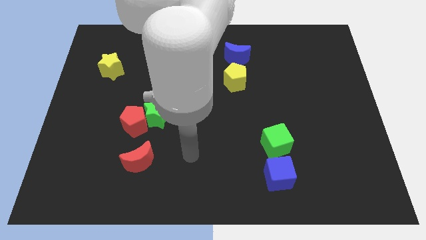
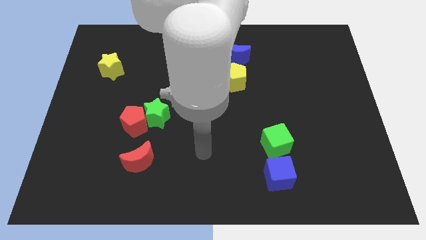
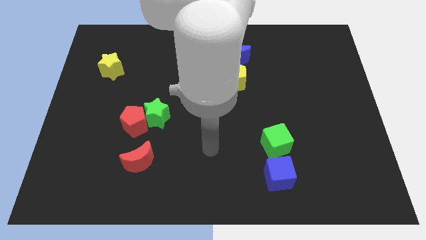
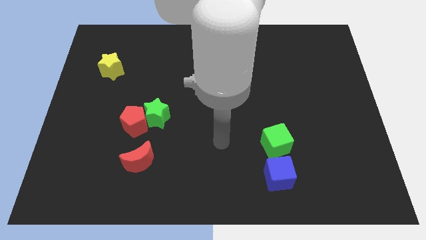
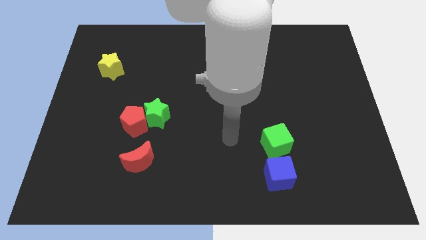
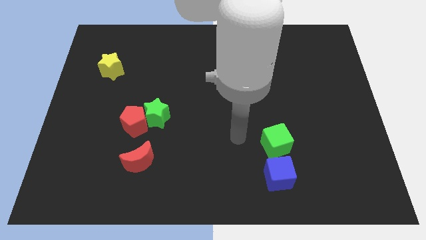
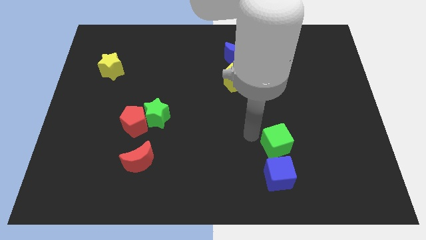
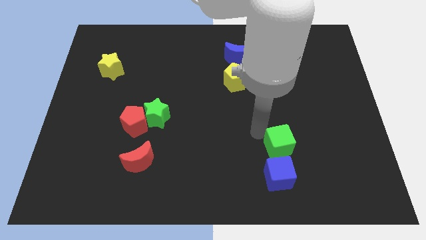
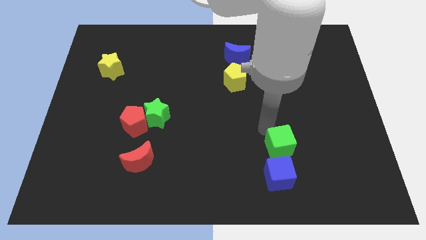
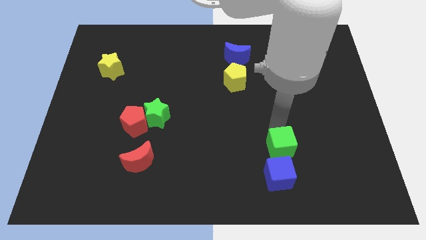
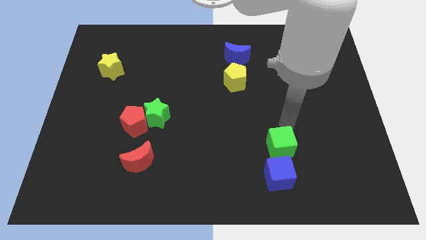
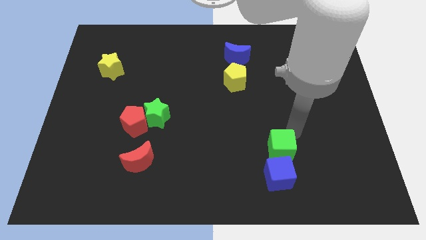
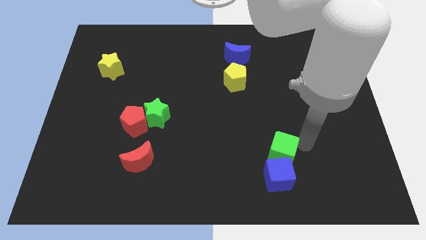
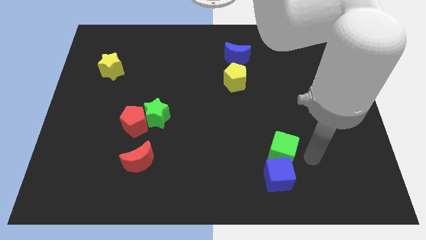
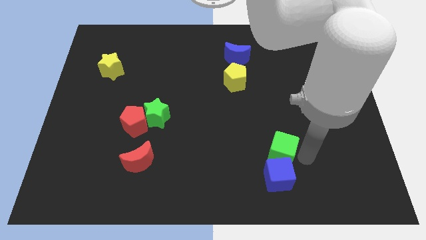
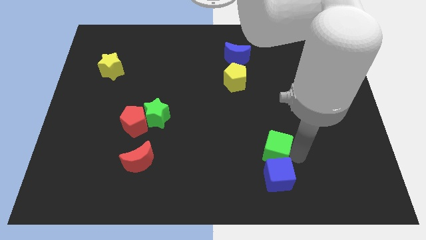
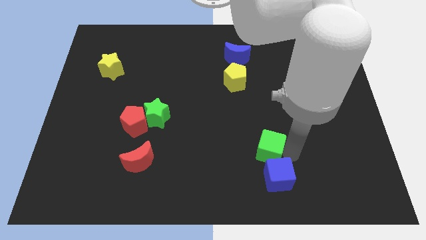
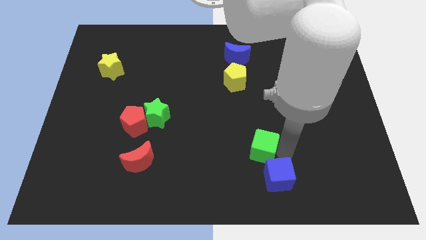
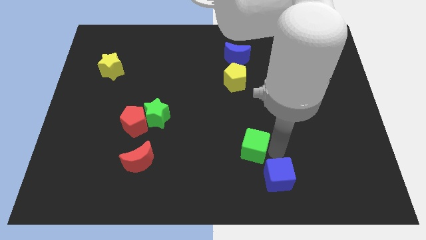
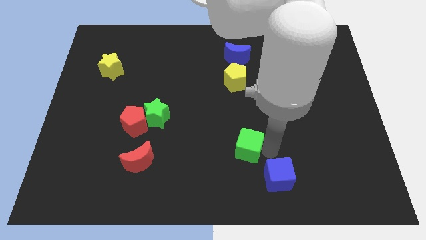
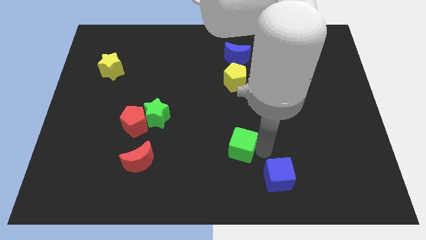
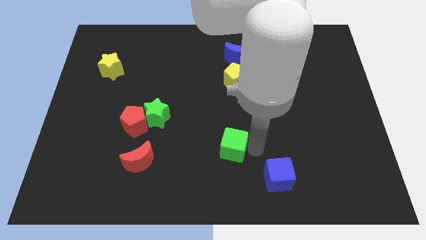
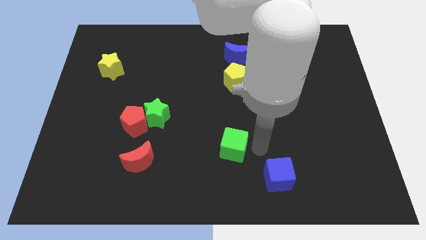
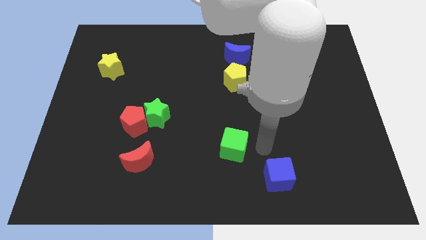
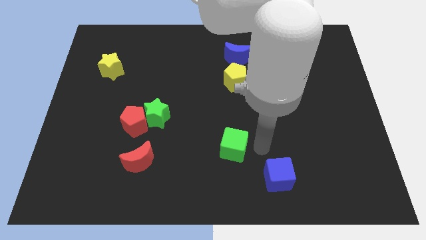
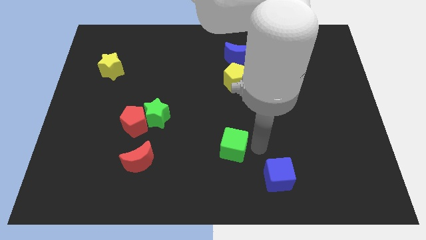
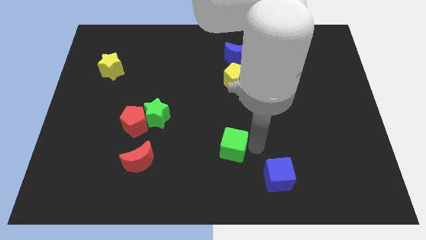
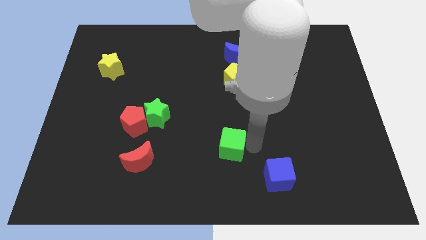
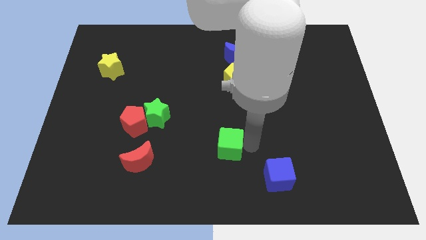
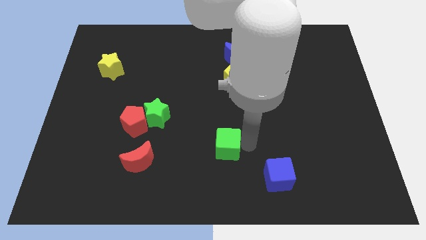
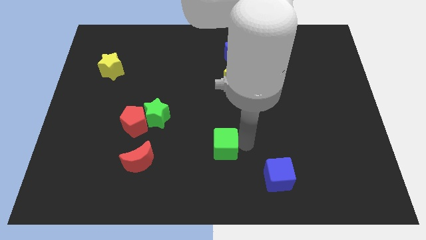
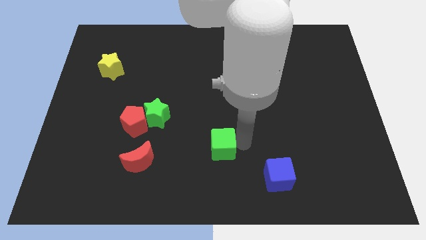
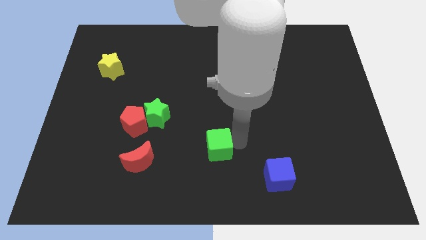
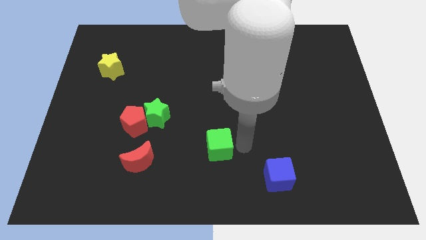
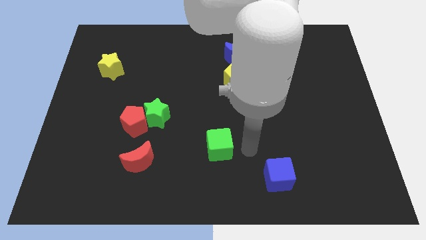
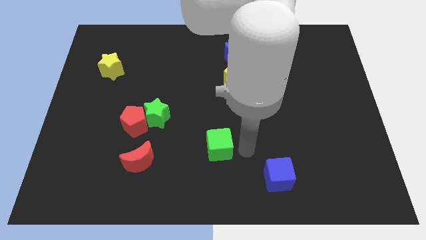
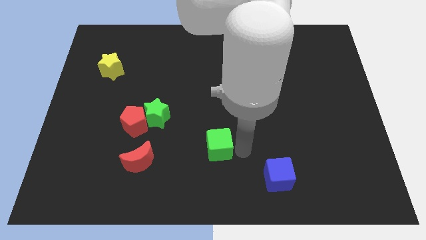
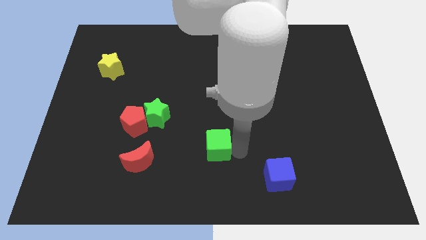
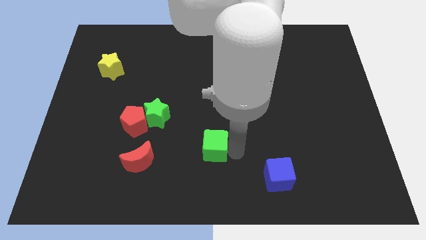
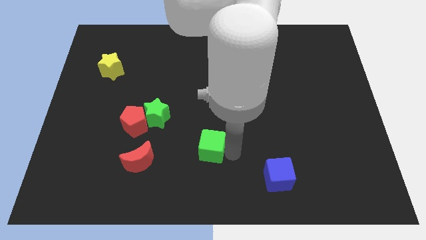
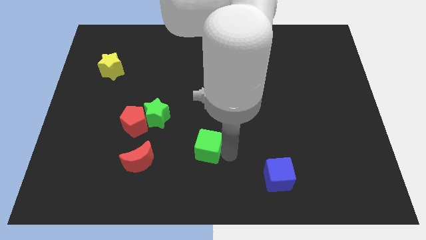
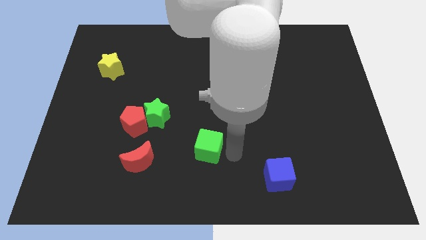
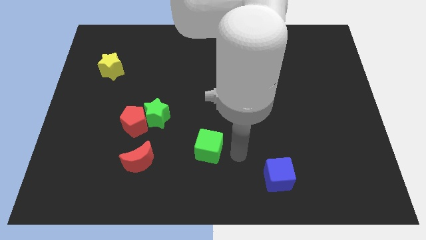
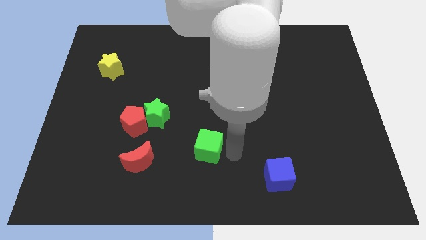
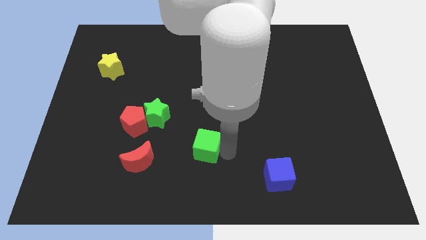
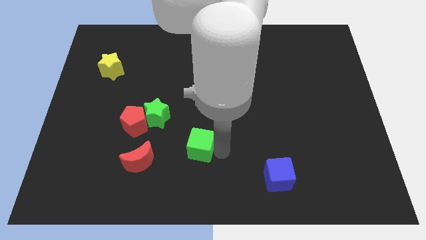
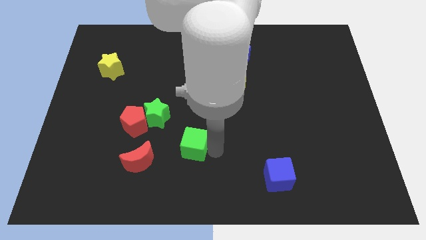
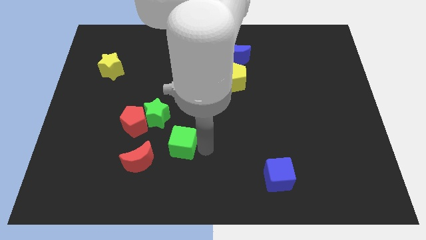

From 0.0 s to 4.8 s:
push the green cube to the left

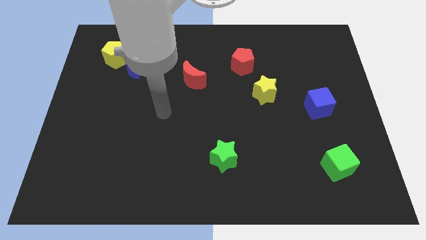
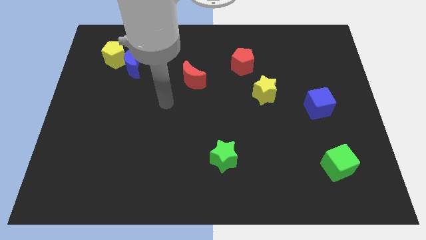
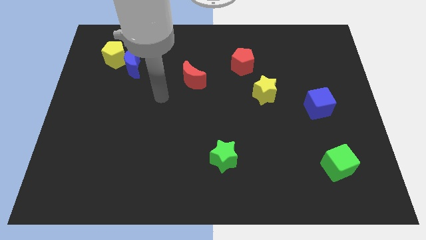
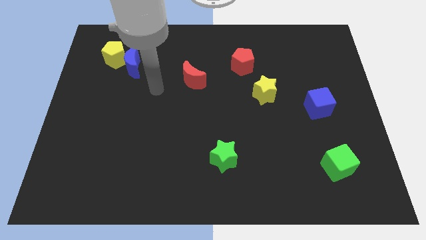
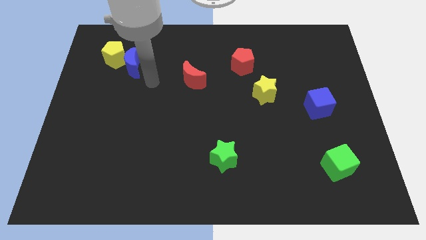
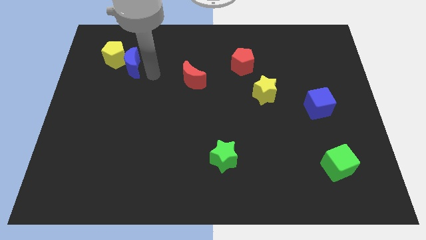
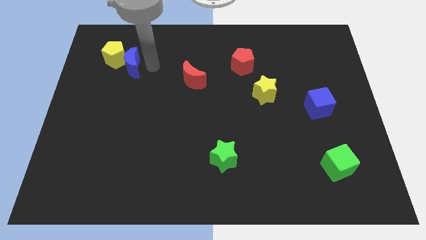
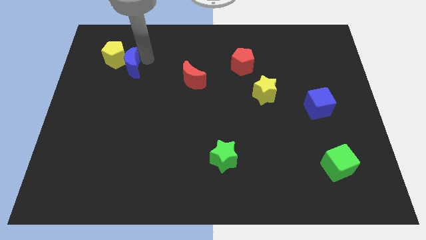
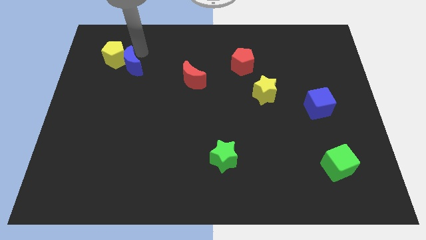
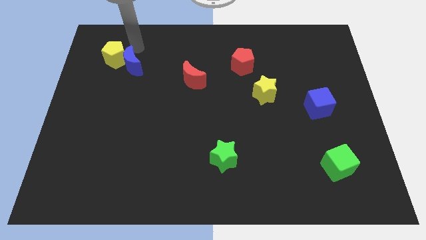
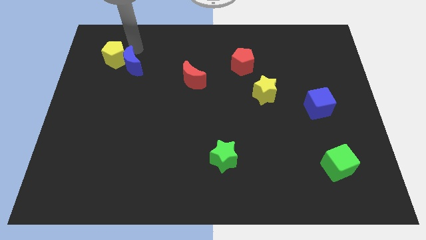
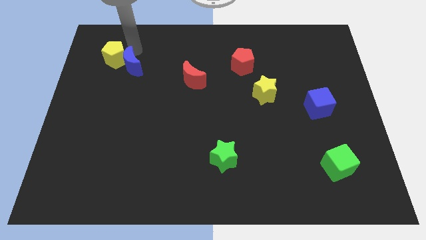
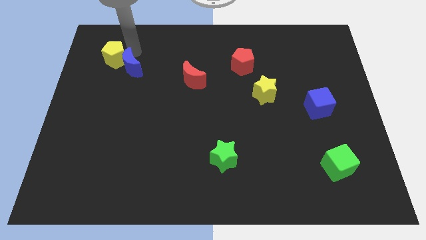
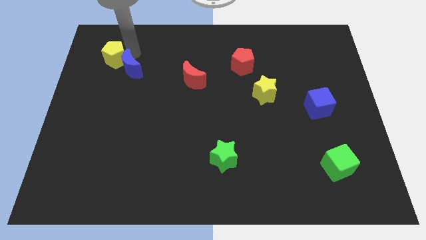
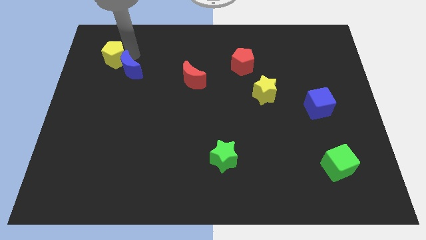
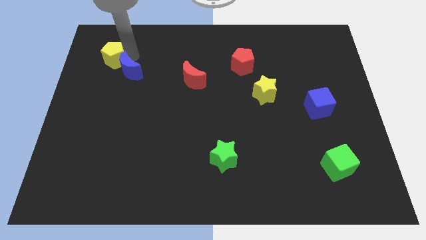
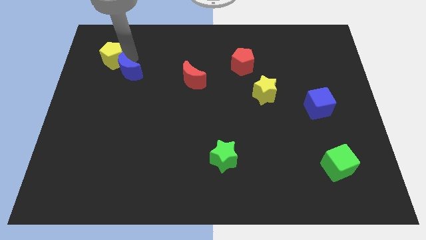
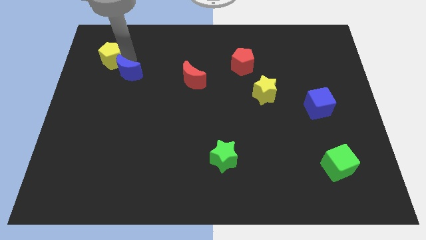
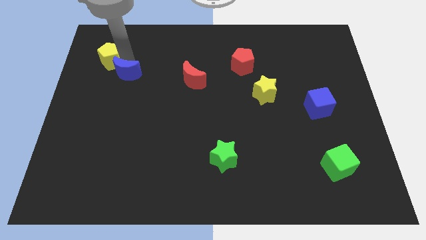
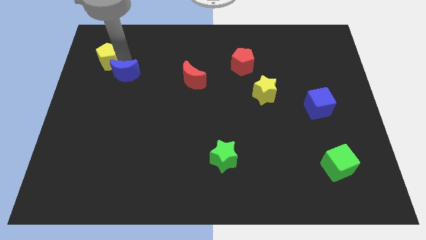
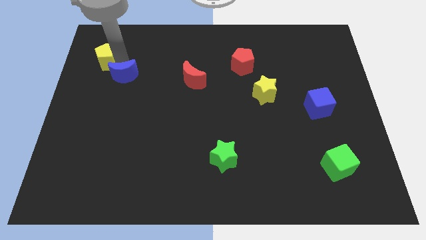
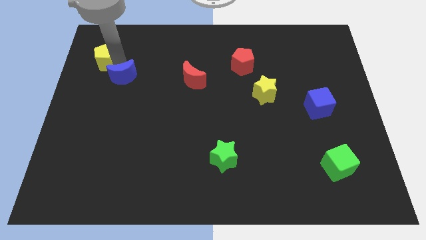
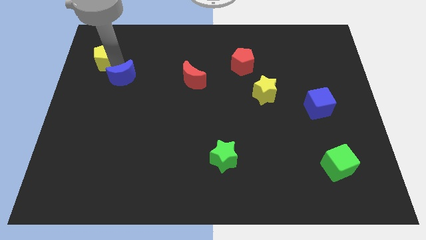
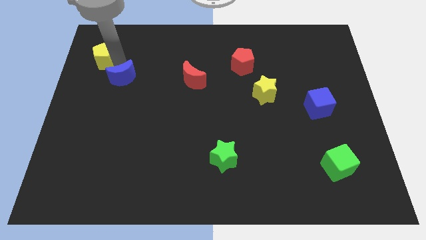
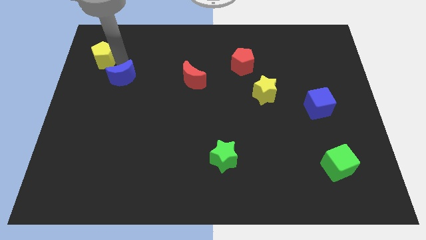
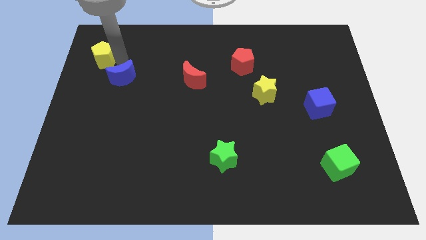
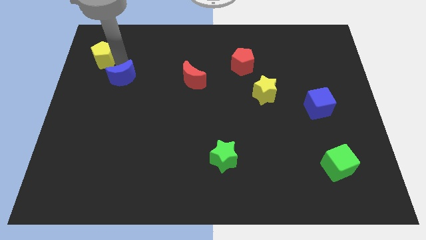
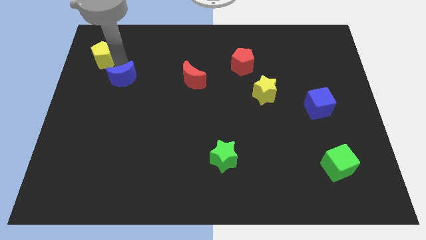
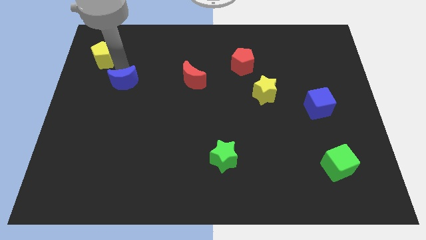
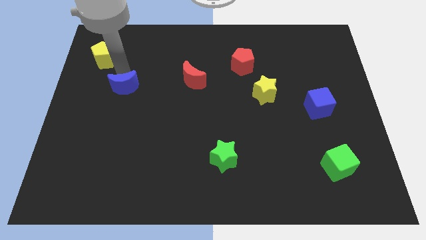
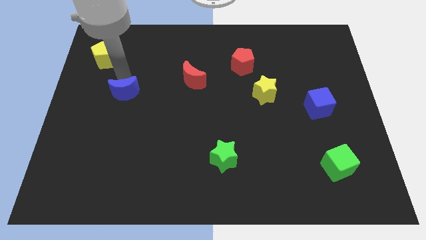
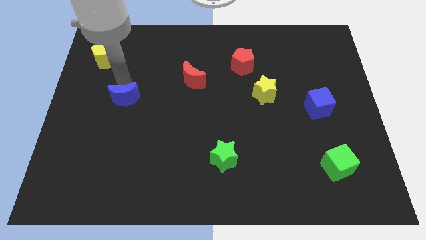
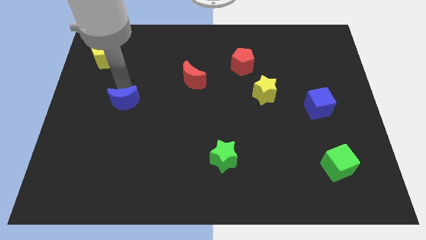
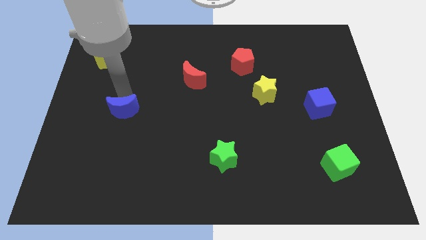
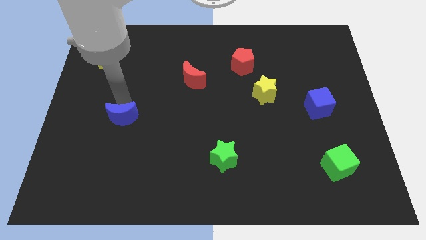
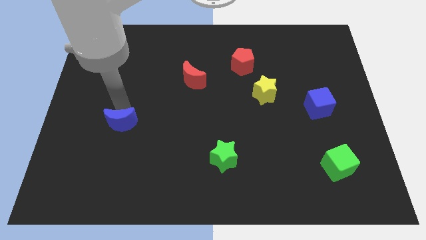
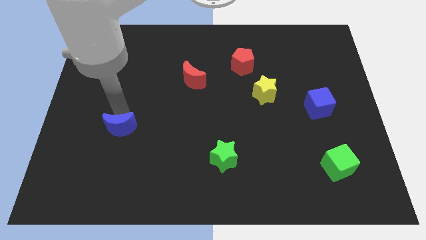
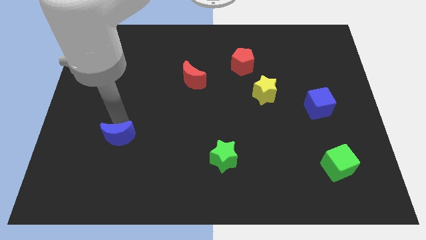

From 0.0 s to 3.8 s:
slide the blue moon downwards
